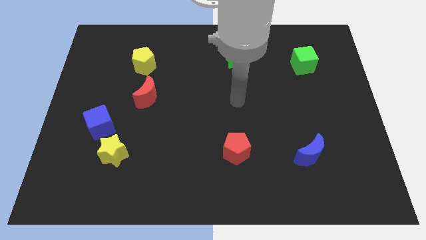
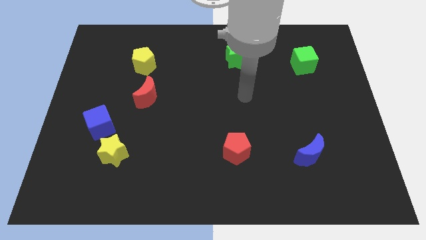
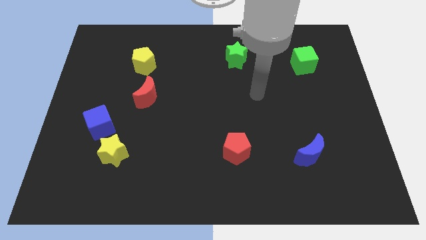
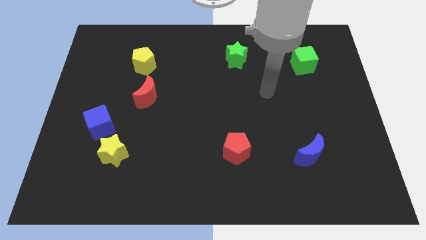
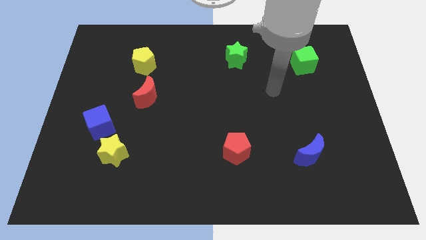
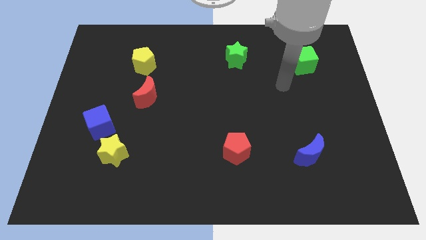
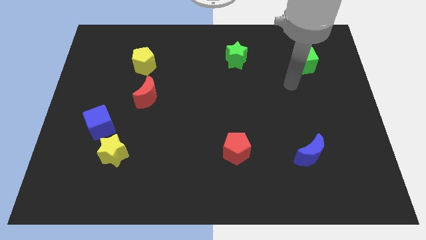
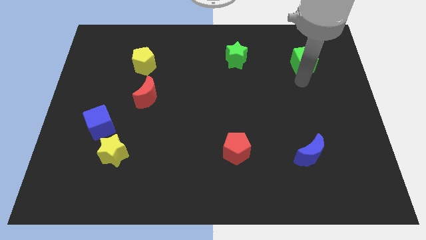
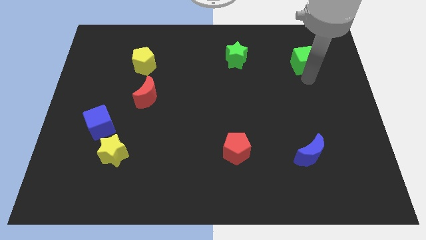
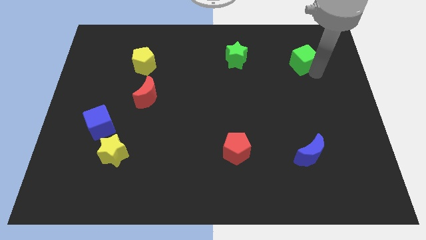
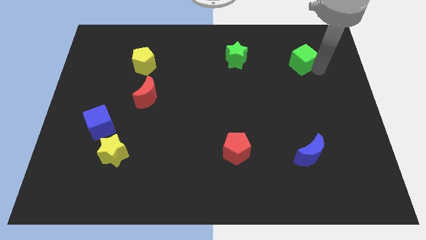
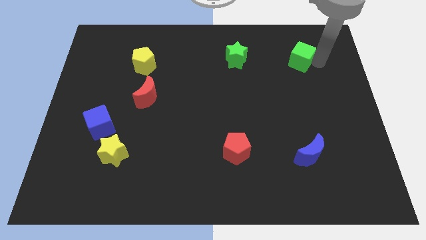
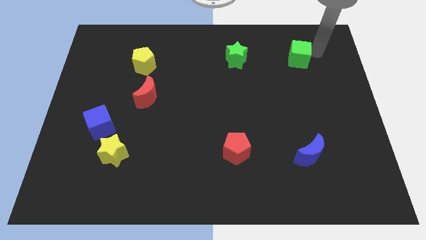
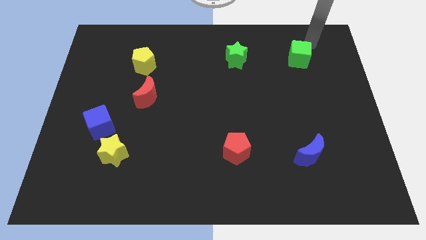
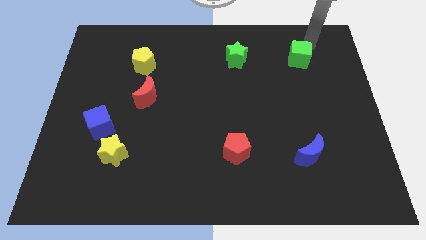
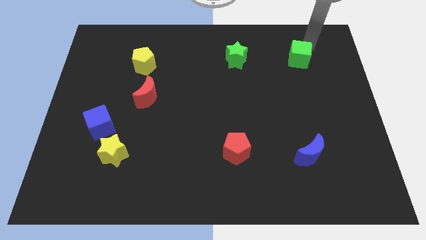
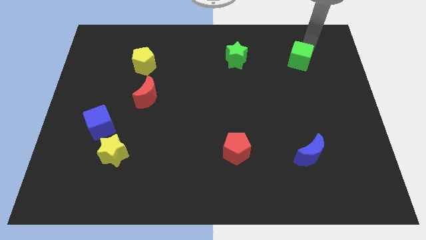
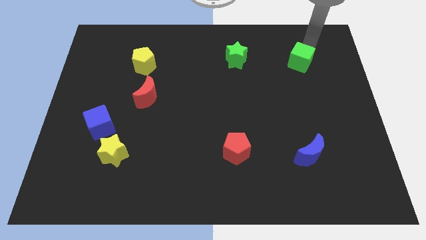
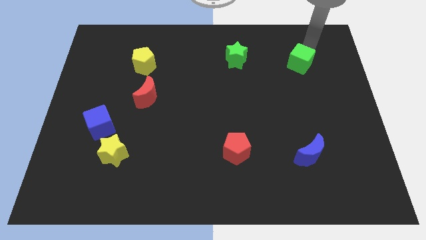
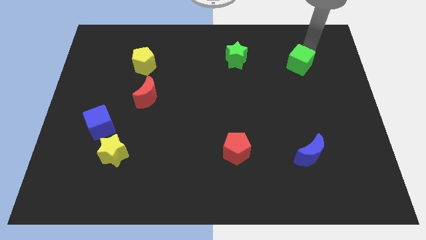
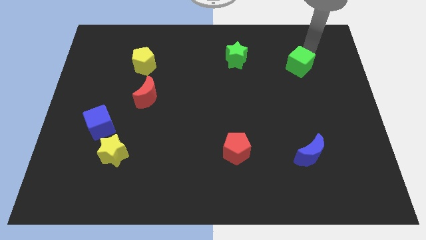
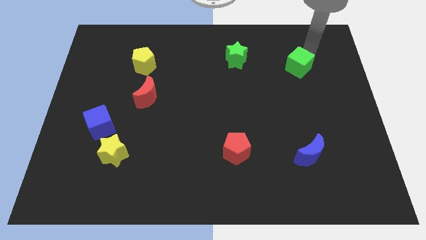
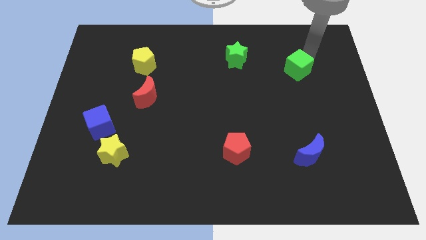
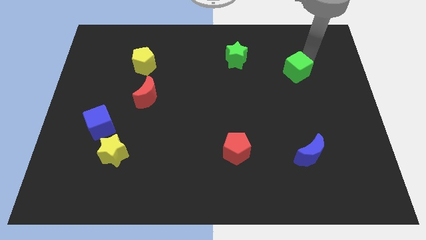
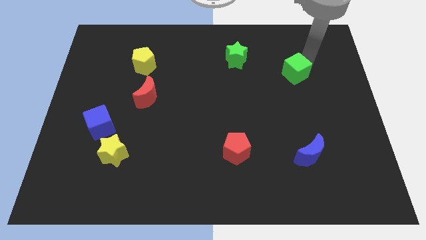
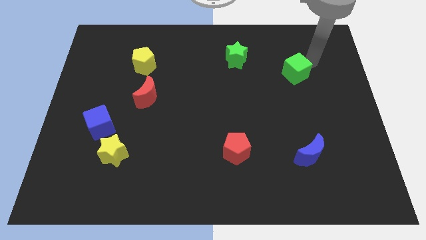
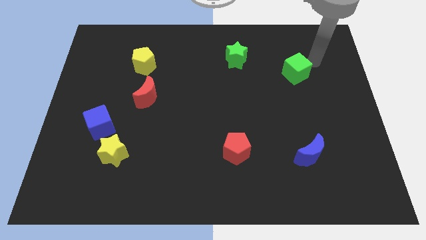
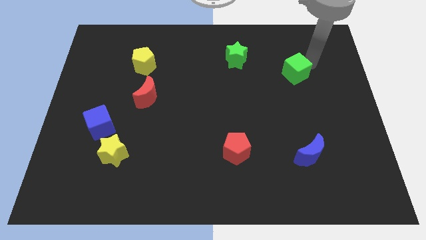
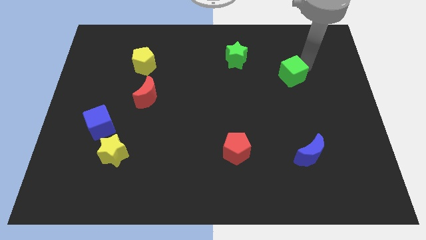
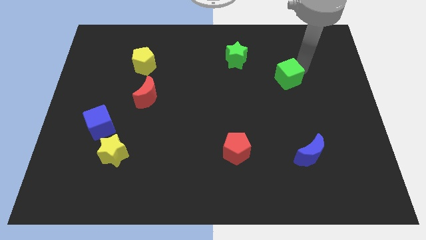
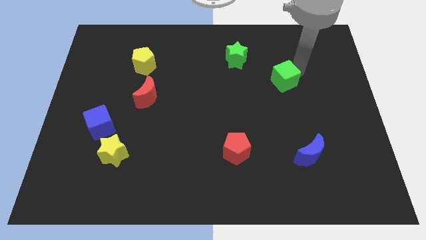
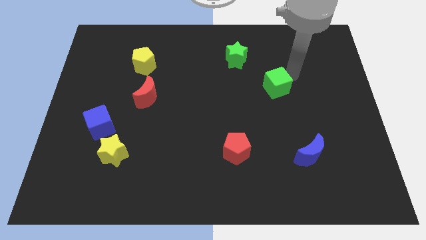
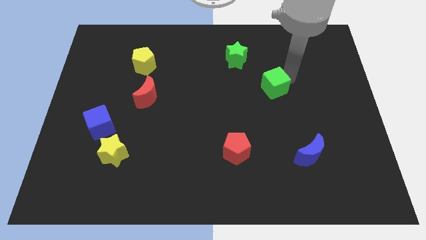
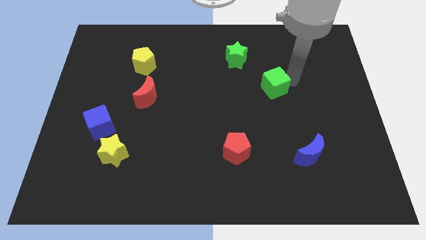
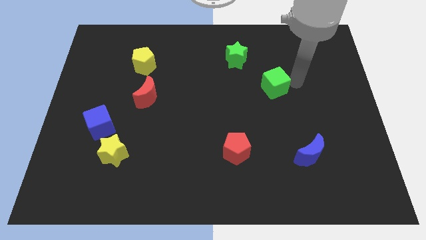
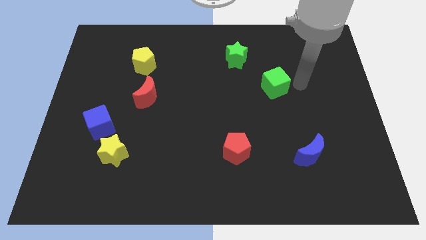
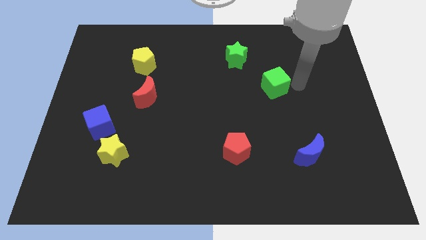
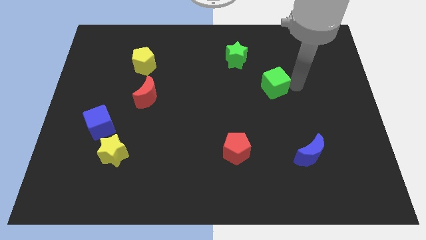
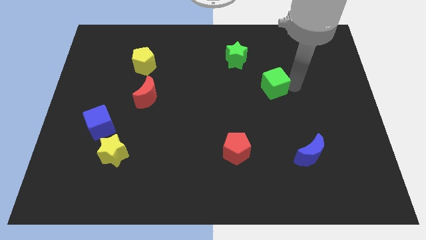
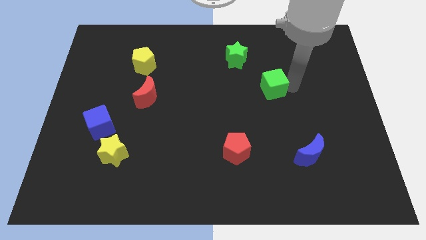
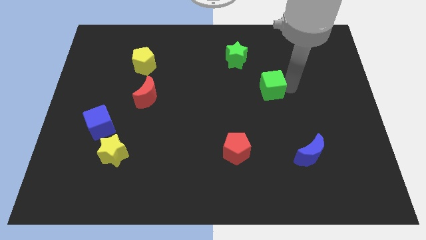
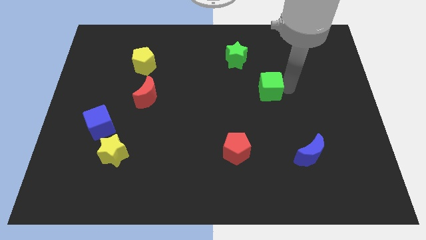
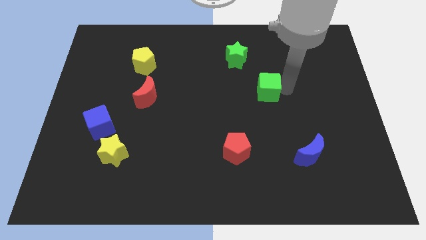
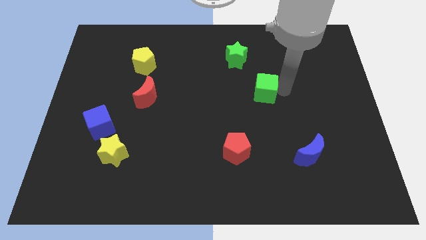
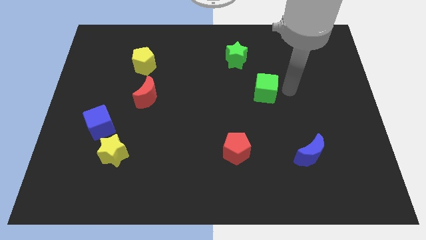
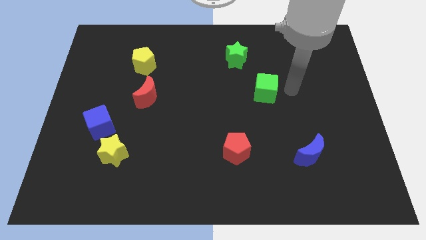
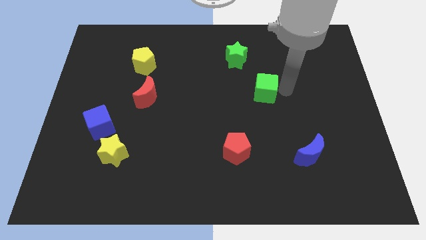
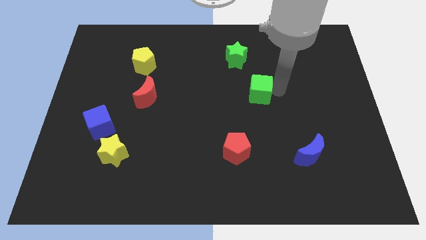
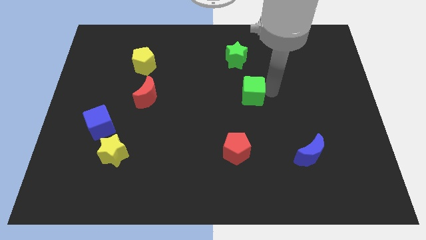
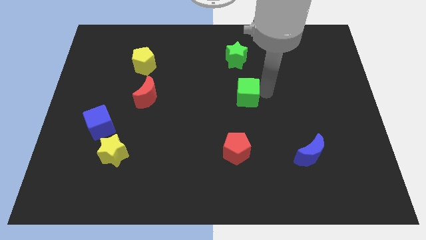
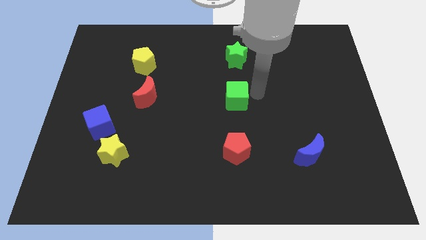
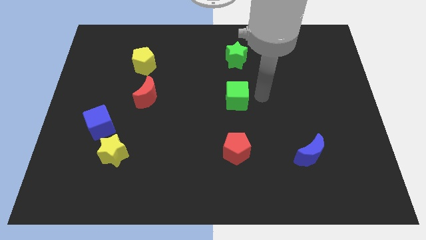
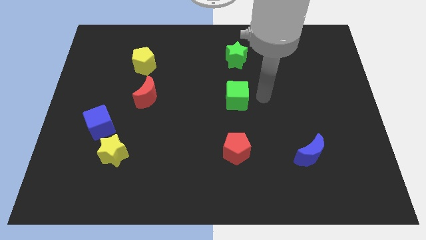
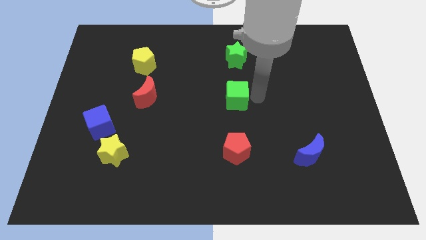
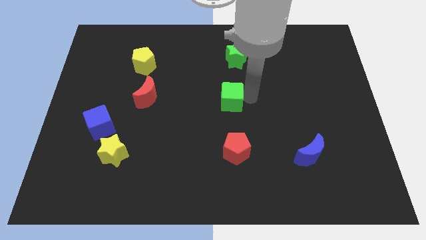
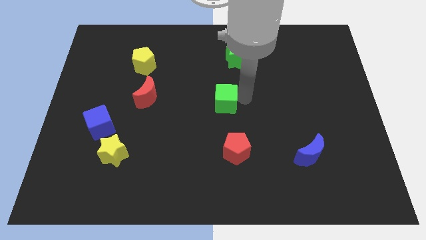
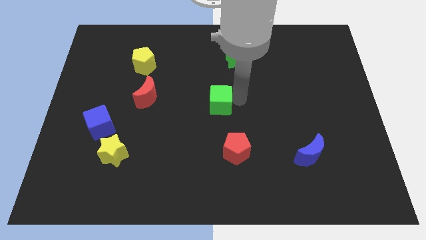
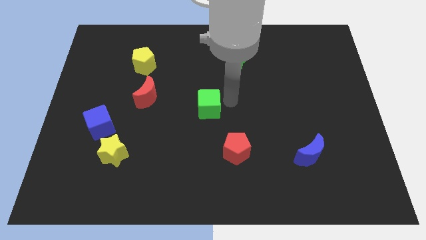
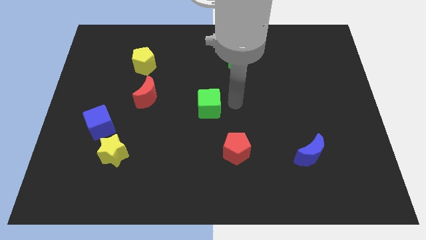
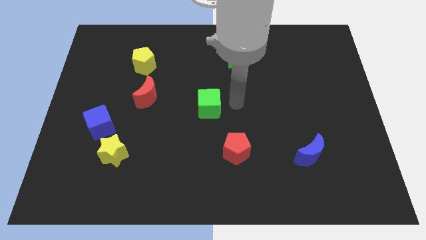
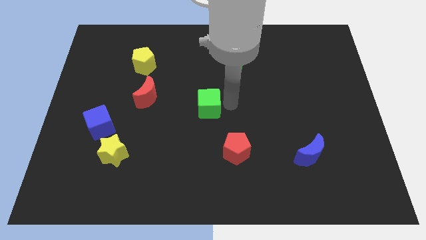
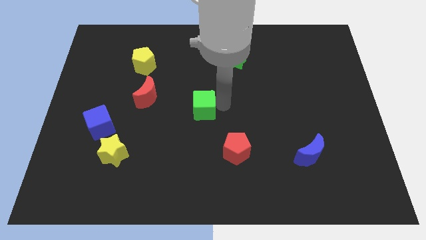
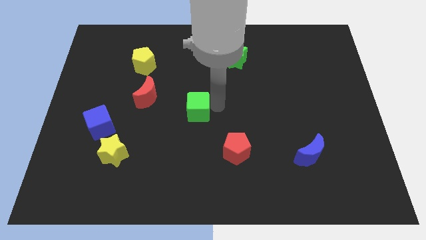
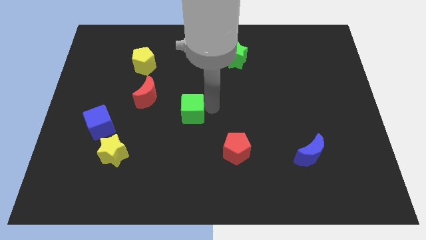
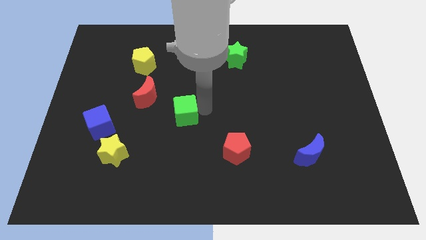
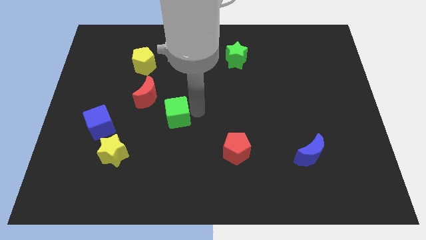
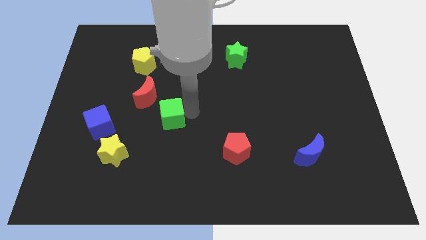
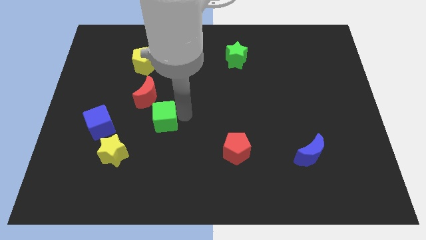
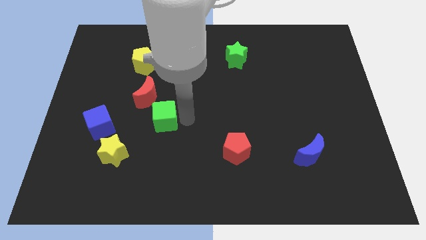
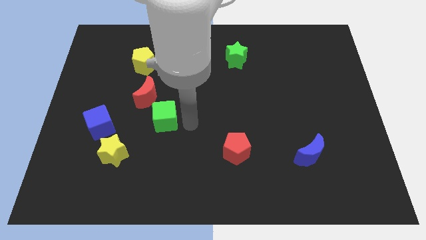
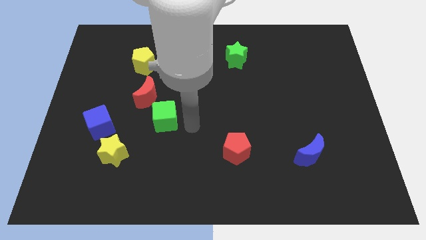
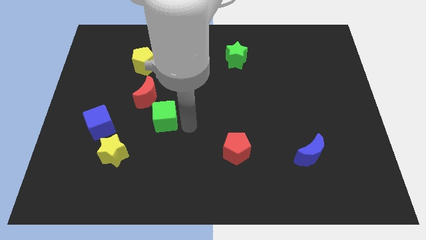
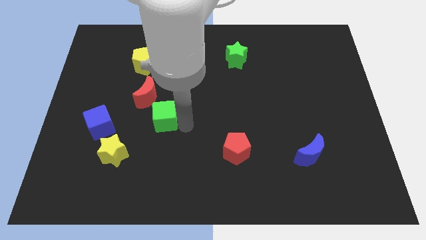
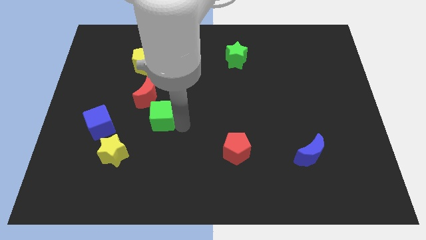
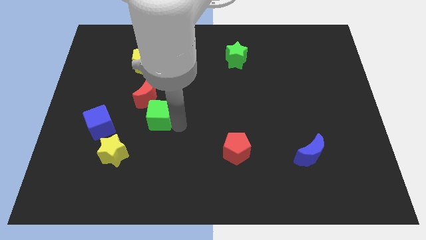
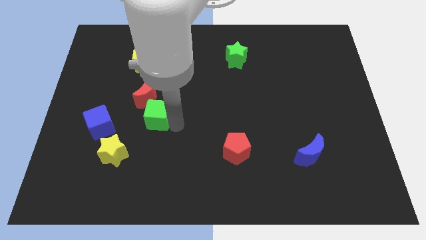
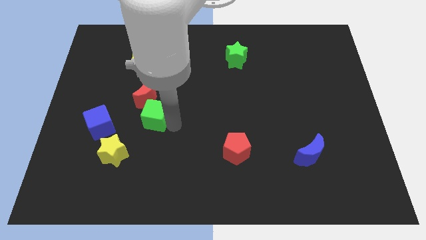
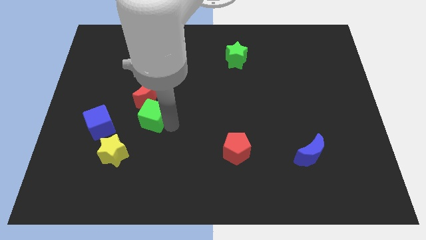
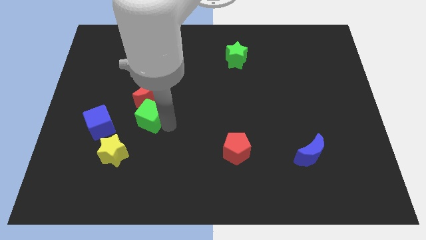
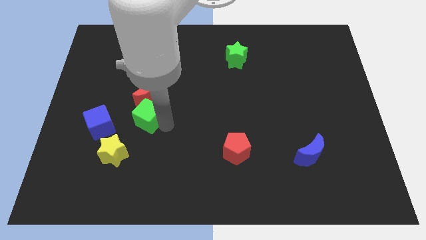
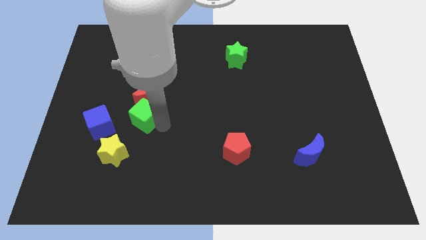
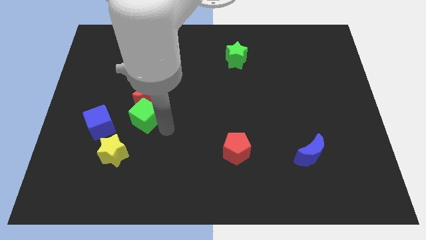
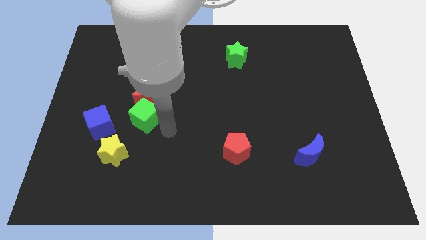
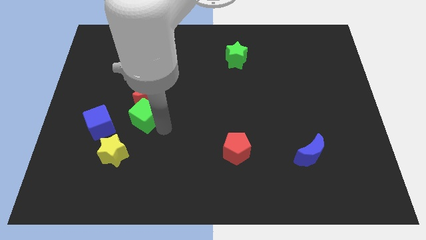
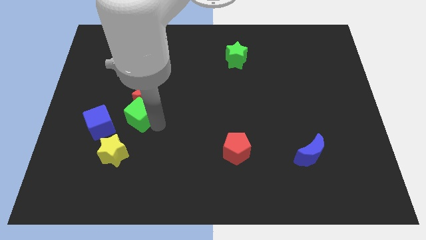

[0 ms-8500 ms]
put the green cube diagonally up and to the right of the blue cube
